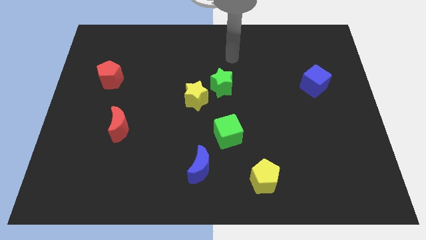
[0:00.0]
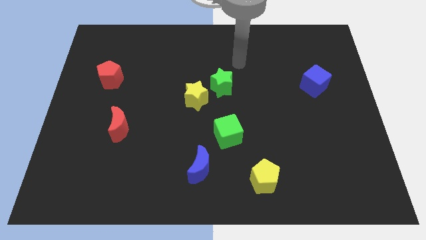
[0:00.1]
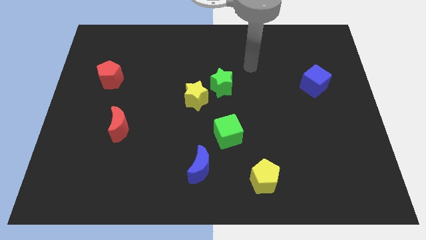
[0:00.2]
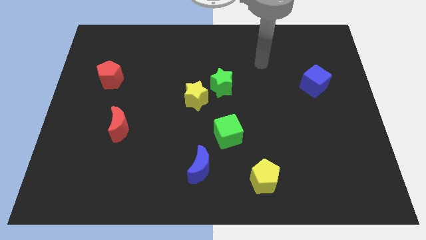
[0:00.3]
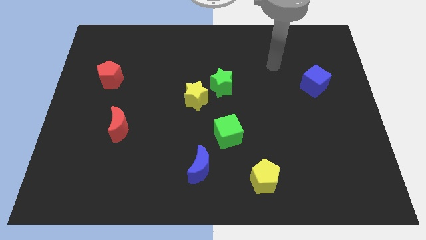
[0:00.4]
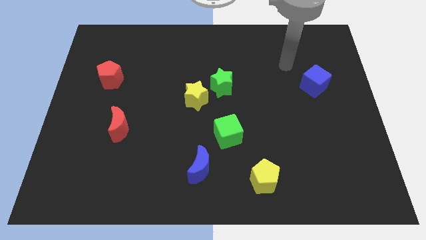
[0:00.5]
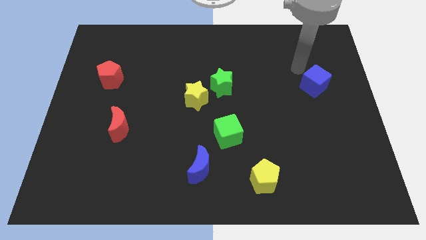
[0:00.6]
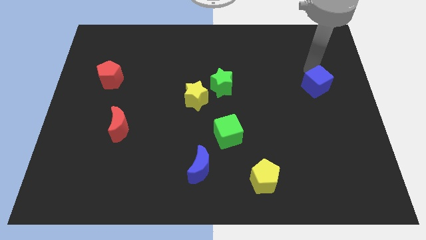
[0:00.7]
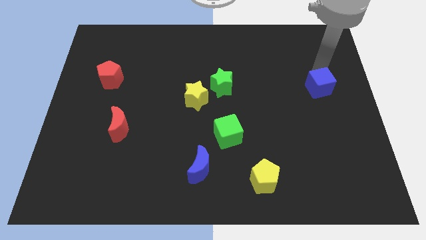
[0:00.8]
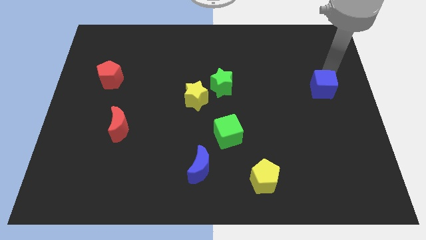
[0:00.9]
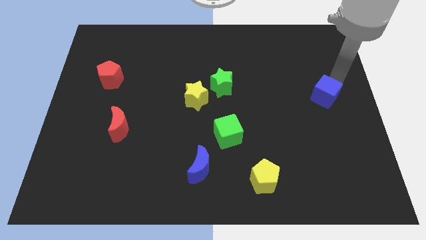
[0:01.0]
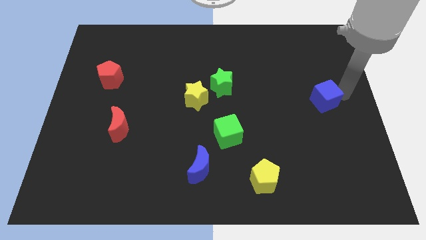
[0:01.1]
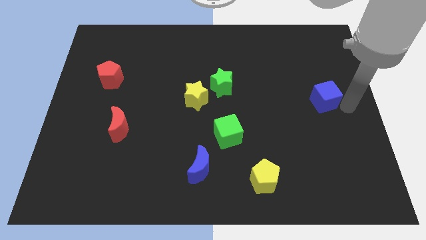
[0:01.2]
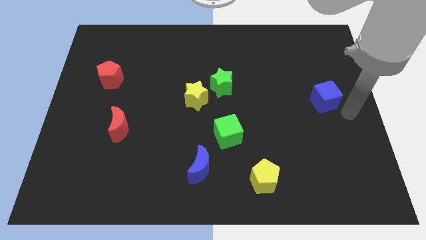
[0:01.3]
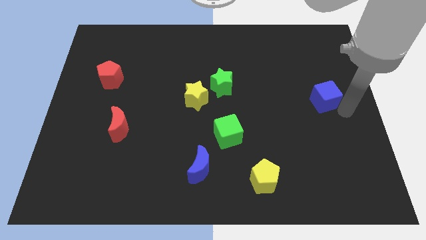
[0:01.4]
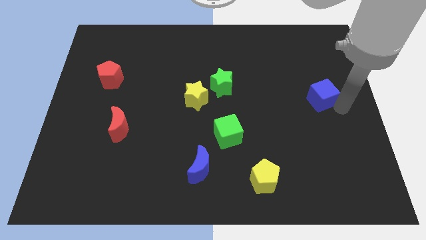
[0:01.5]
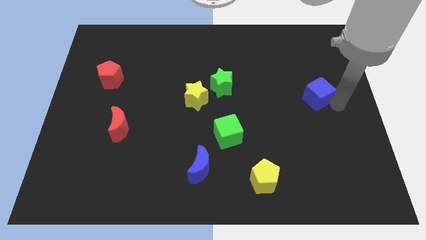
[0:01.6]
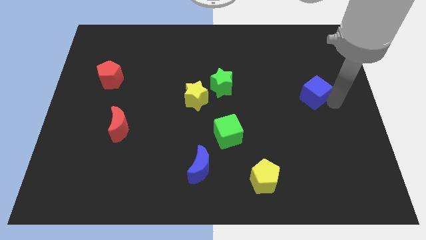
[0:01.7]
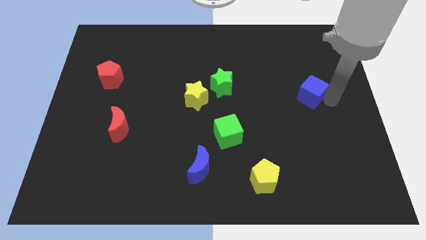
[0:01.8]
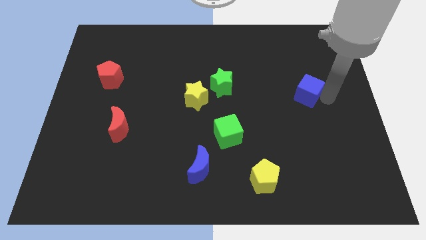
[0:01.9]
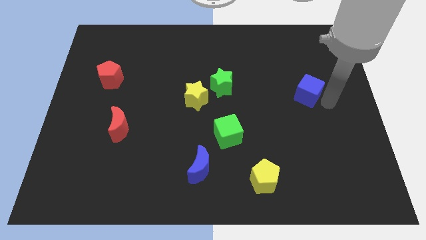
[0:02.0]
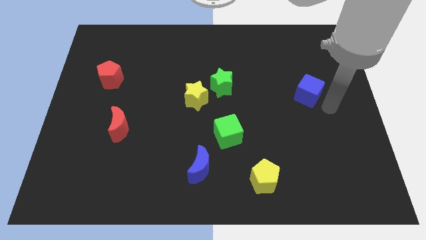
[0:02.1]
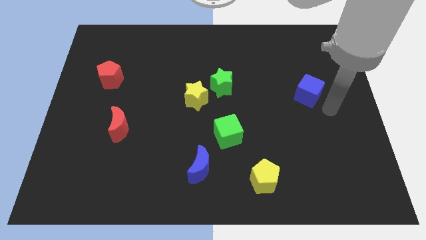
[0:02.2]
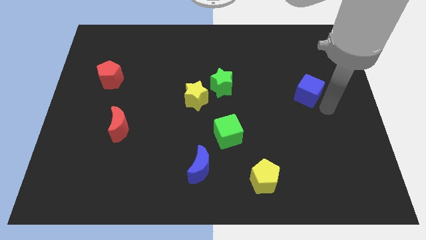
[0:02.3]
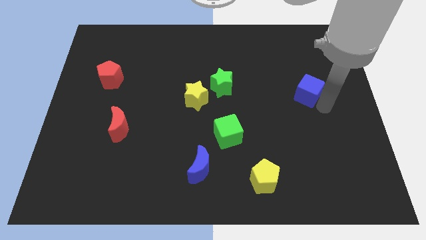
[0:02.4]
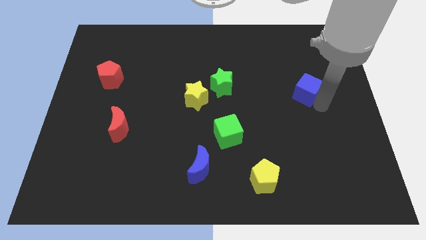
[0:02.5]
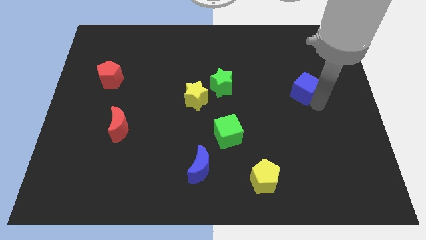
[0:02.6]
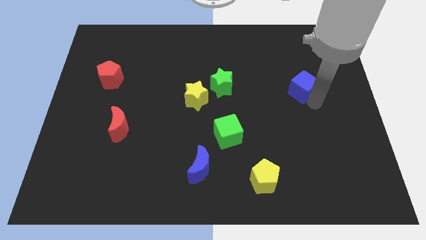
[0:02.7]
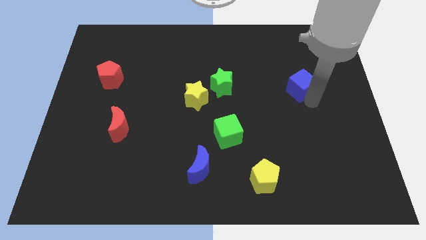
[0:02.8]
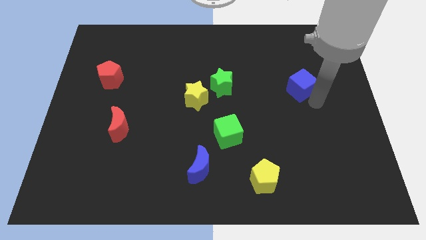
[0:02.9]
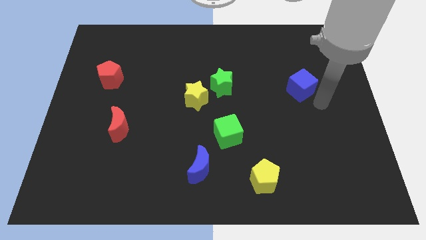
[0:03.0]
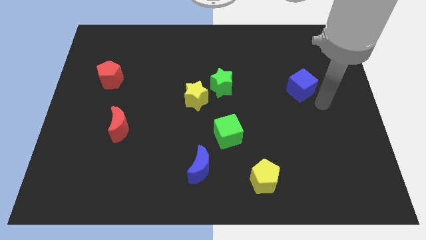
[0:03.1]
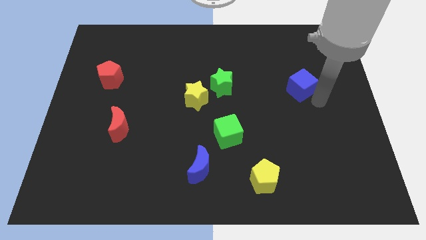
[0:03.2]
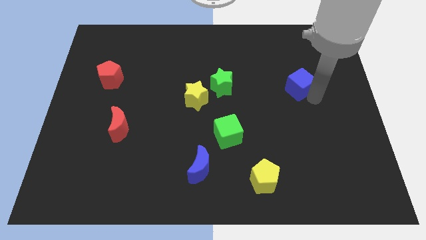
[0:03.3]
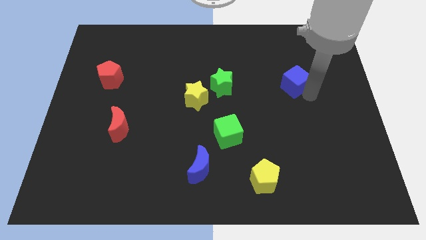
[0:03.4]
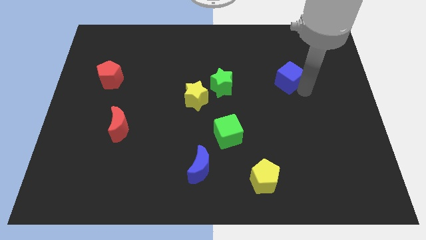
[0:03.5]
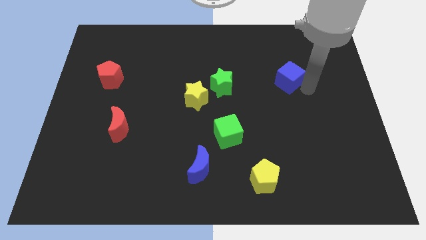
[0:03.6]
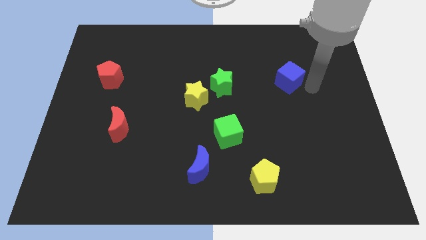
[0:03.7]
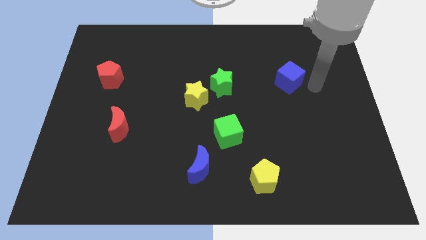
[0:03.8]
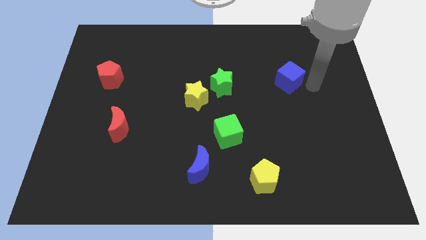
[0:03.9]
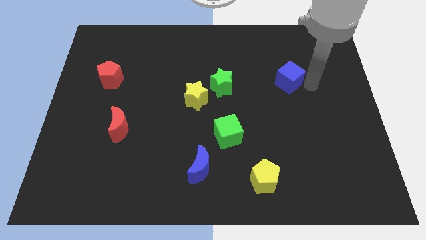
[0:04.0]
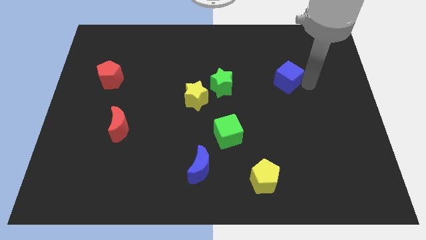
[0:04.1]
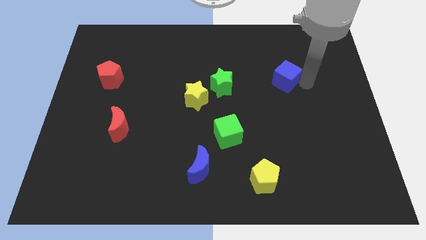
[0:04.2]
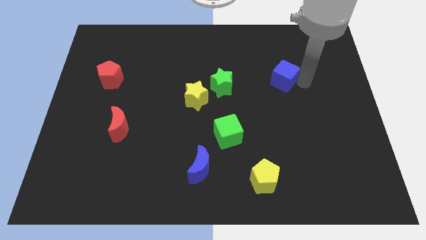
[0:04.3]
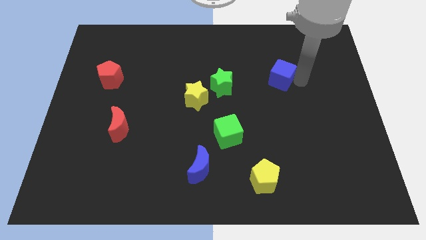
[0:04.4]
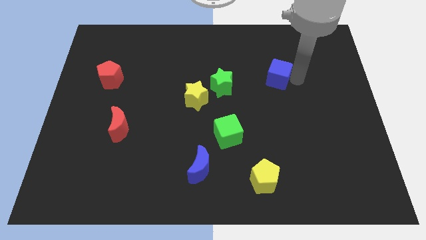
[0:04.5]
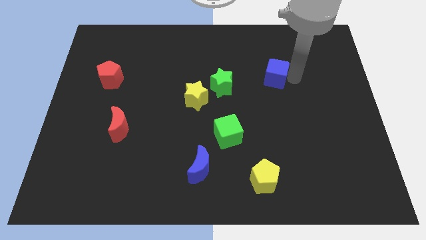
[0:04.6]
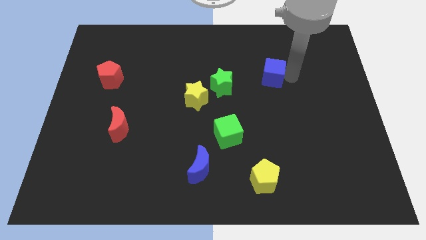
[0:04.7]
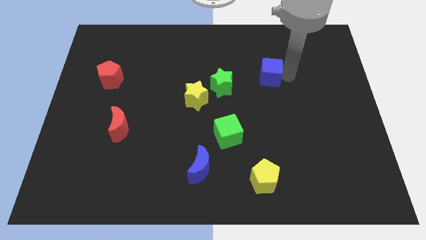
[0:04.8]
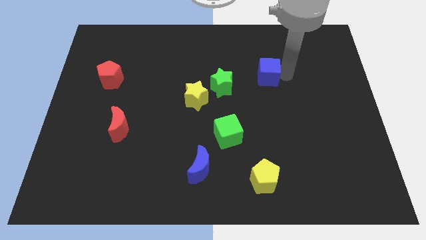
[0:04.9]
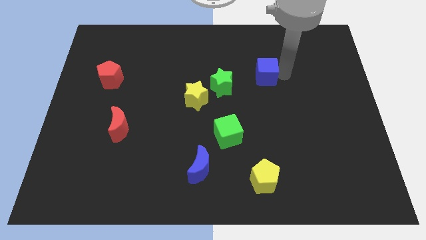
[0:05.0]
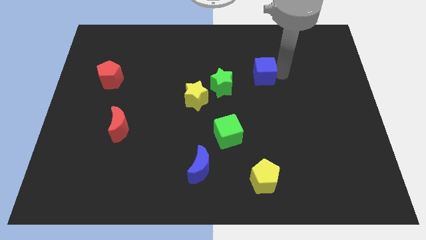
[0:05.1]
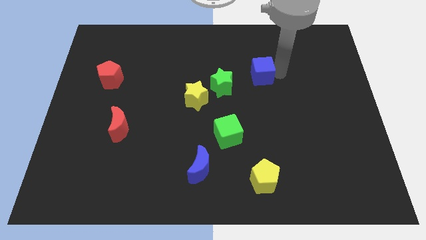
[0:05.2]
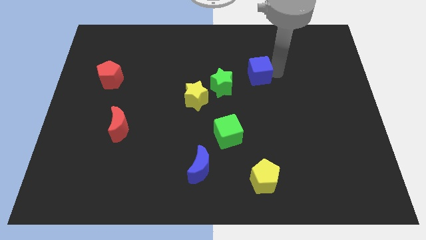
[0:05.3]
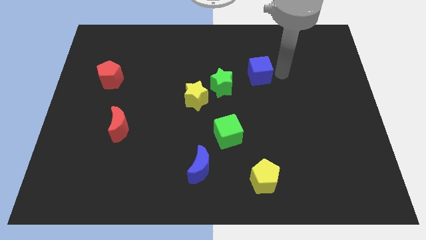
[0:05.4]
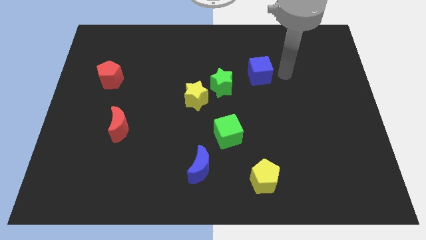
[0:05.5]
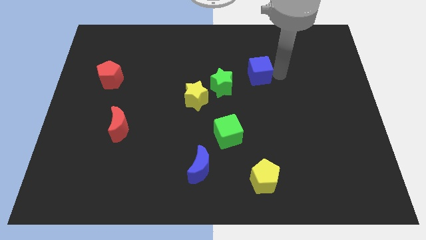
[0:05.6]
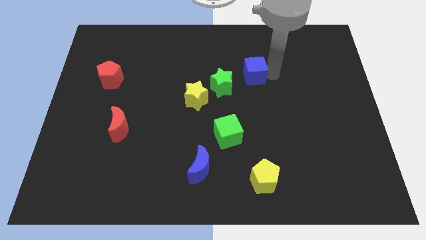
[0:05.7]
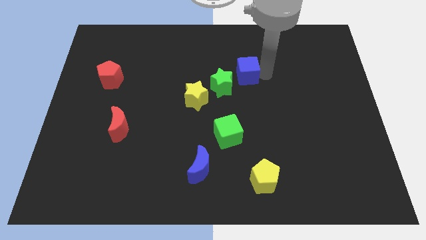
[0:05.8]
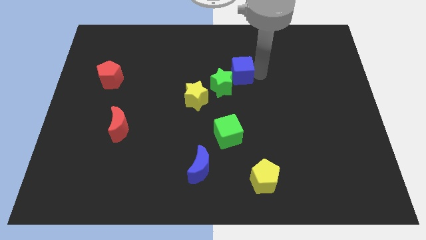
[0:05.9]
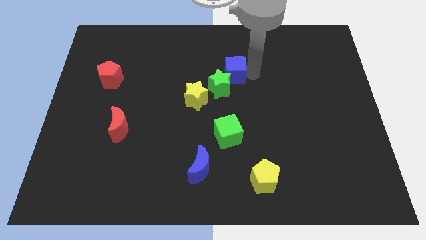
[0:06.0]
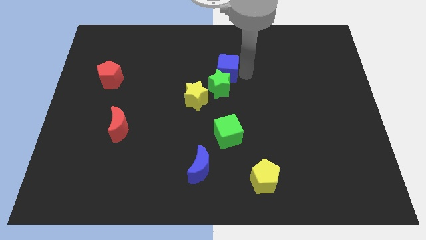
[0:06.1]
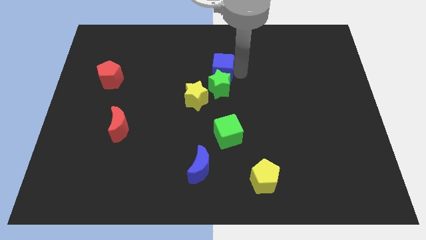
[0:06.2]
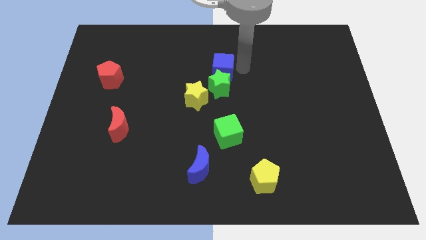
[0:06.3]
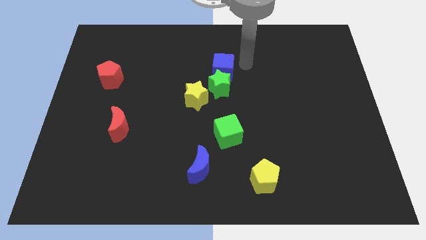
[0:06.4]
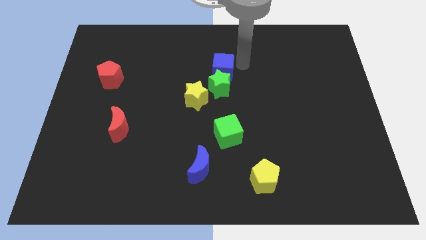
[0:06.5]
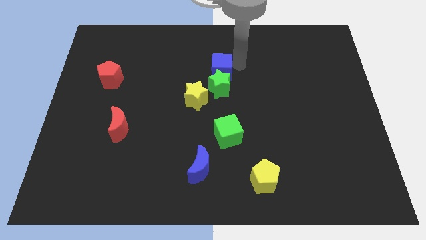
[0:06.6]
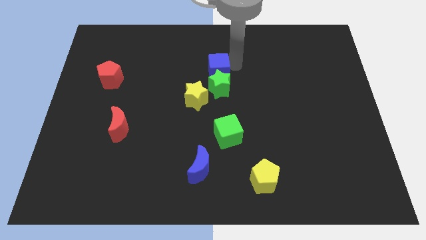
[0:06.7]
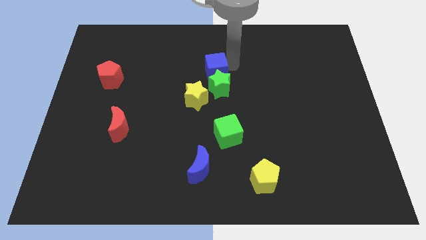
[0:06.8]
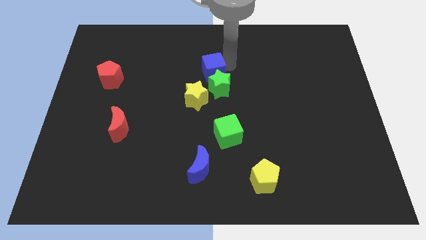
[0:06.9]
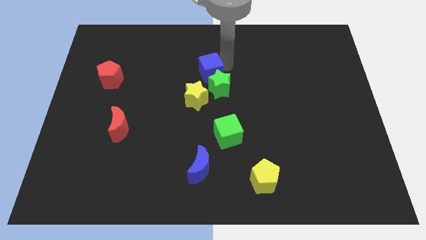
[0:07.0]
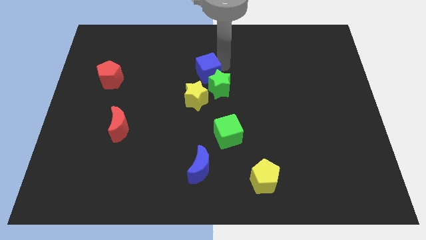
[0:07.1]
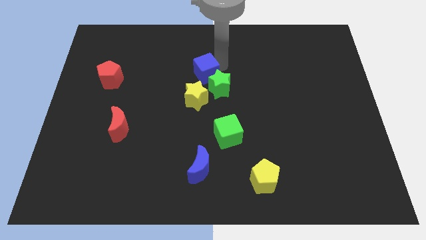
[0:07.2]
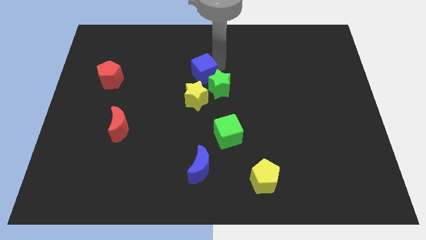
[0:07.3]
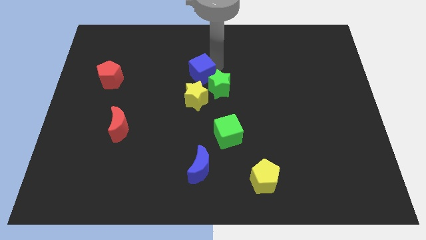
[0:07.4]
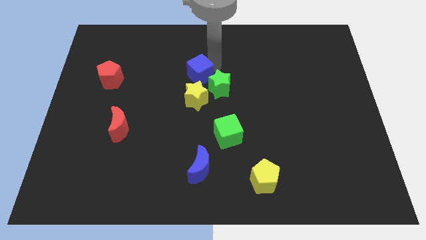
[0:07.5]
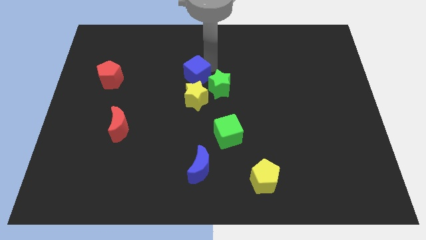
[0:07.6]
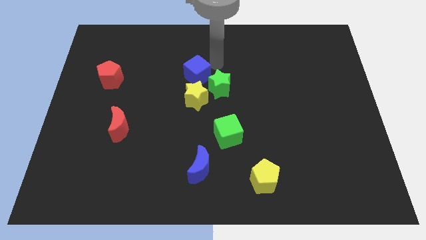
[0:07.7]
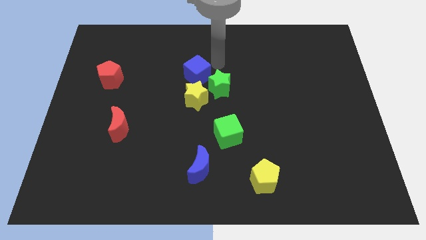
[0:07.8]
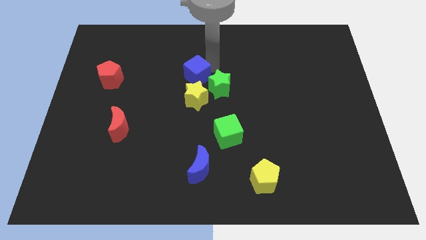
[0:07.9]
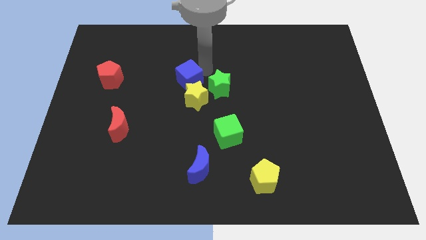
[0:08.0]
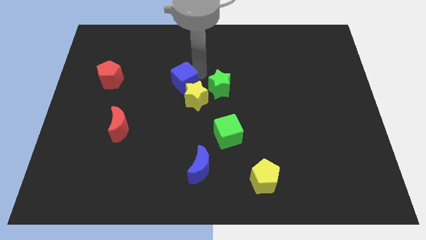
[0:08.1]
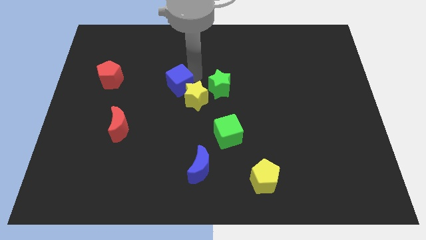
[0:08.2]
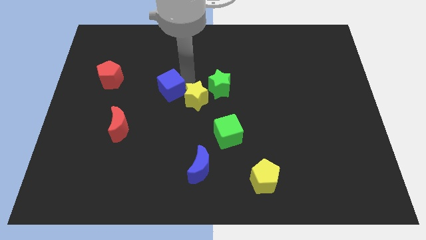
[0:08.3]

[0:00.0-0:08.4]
push the blue cube to the left side of the yellow star
